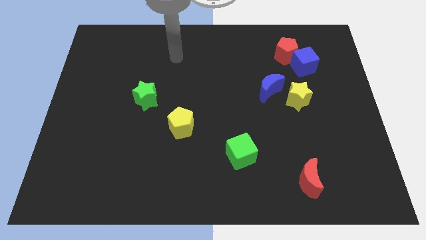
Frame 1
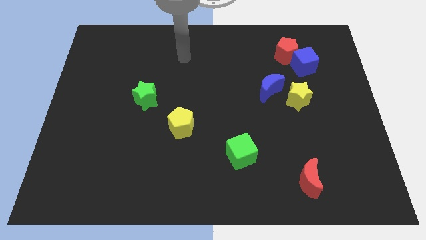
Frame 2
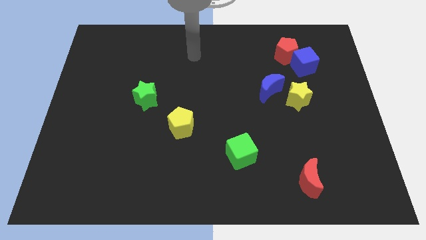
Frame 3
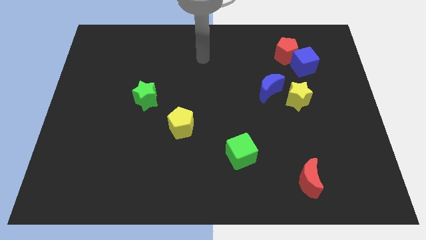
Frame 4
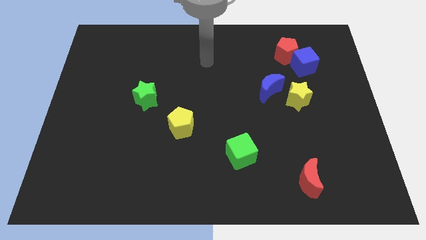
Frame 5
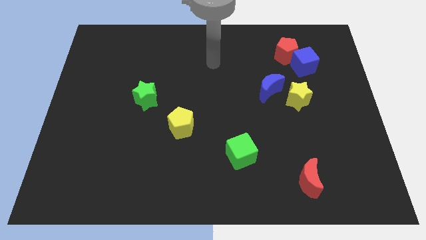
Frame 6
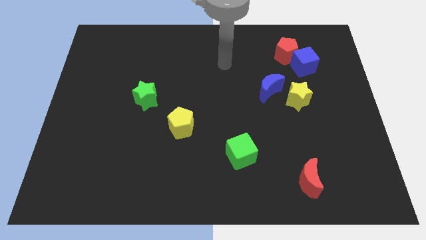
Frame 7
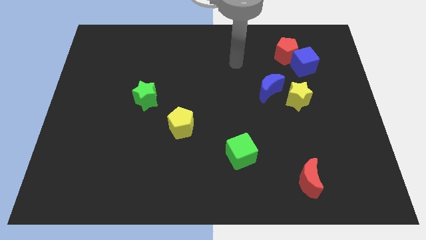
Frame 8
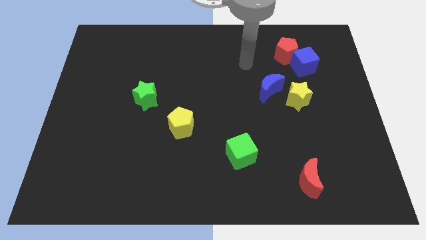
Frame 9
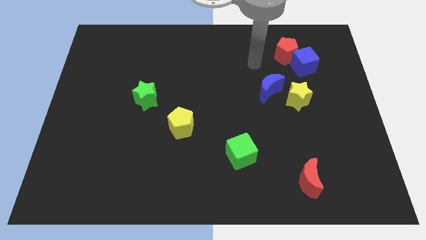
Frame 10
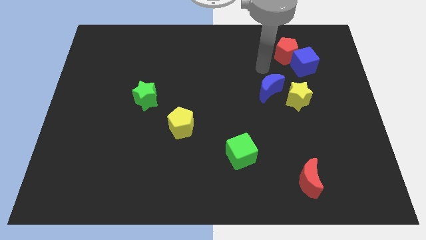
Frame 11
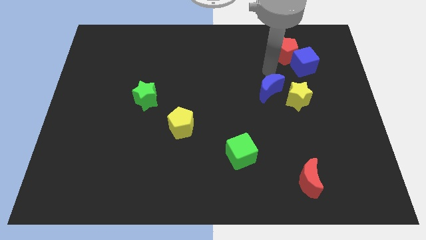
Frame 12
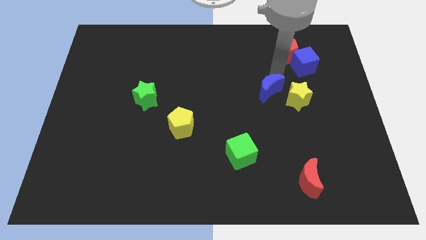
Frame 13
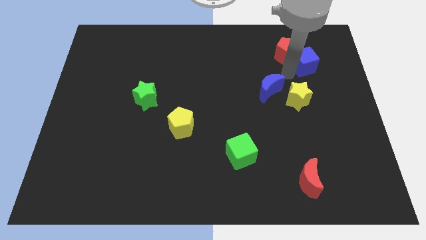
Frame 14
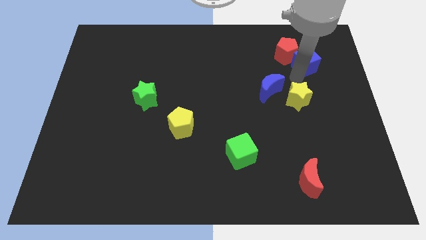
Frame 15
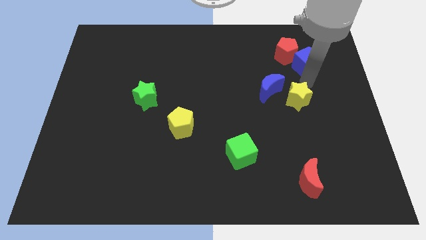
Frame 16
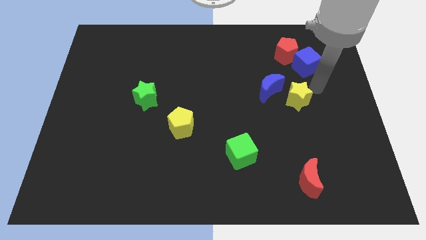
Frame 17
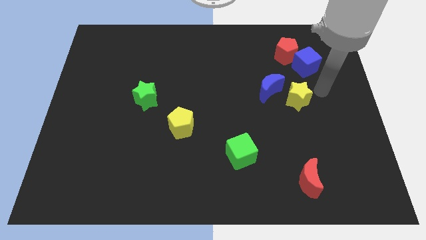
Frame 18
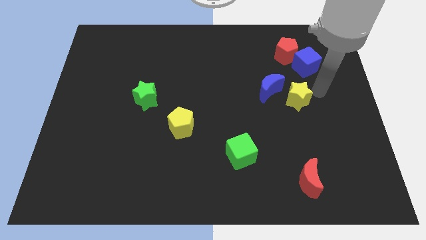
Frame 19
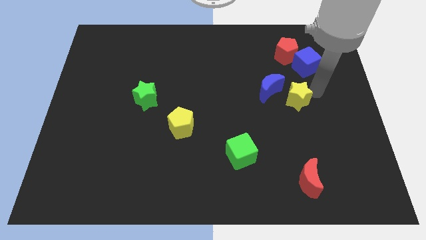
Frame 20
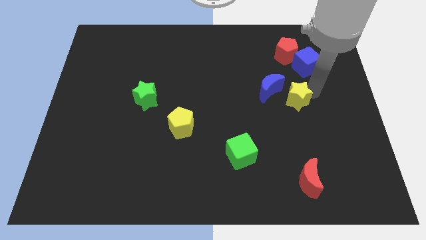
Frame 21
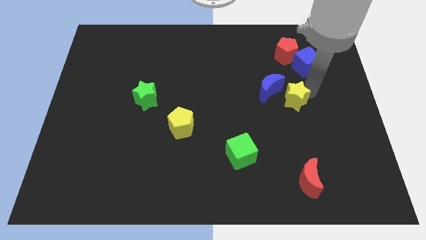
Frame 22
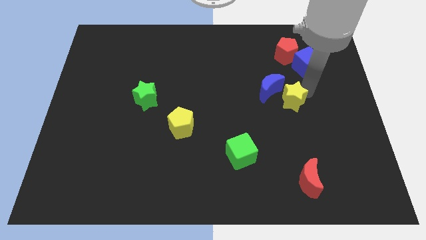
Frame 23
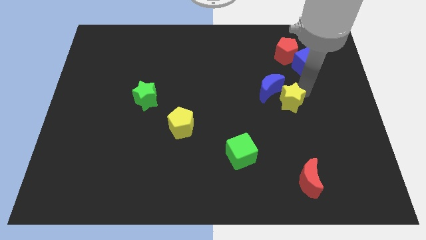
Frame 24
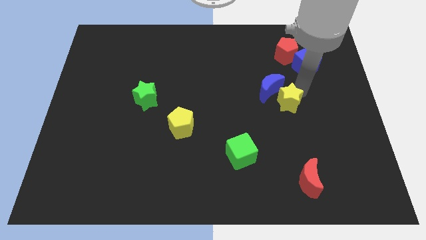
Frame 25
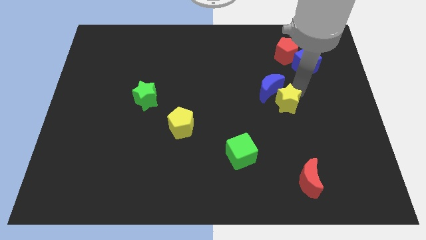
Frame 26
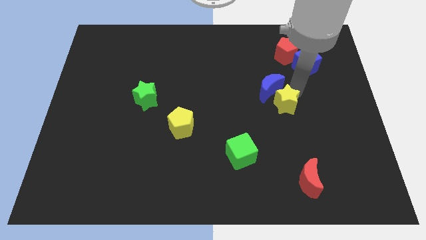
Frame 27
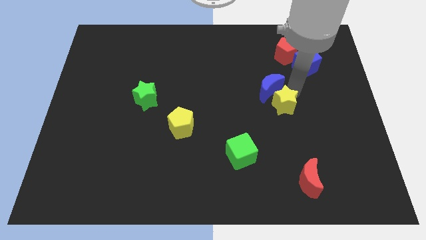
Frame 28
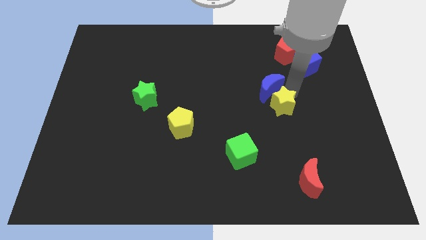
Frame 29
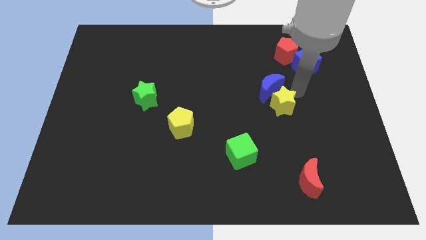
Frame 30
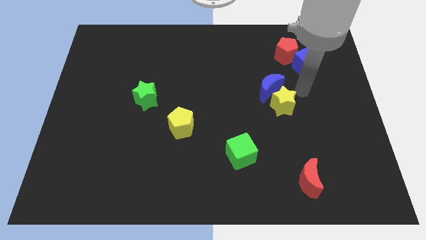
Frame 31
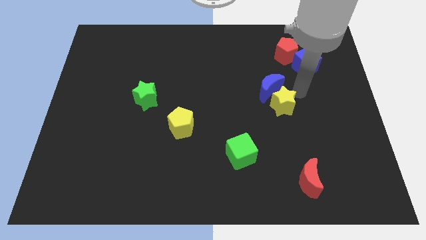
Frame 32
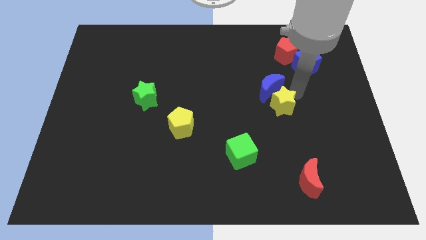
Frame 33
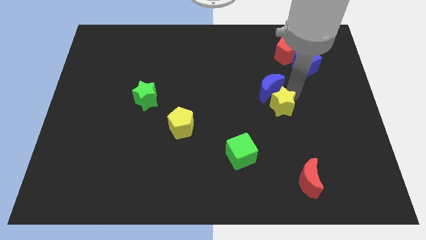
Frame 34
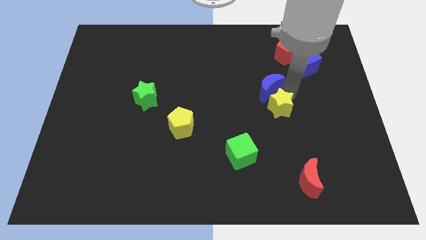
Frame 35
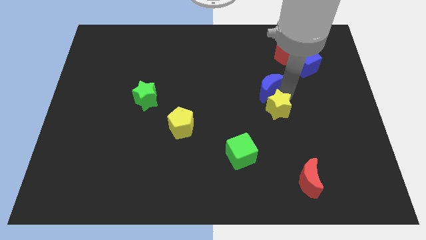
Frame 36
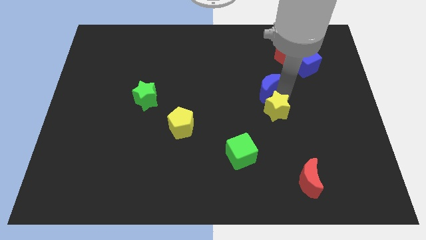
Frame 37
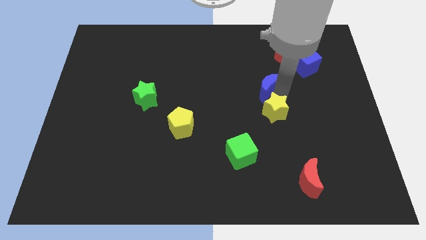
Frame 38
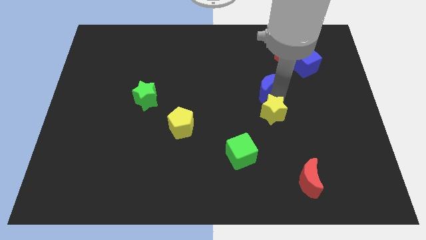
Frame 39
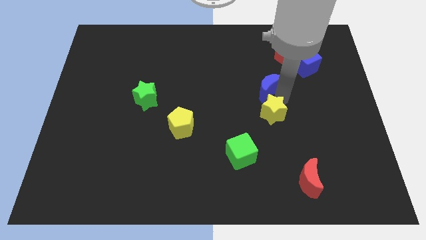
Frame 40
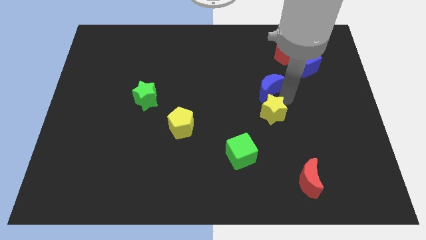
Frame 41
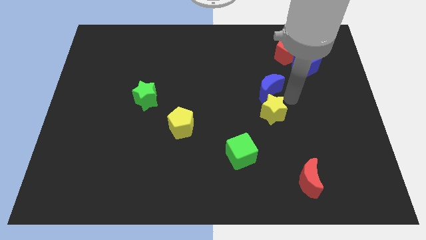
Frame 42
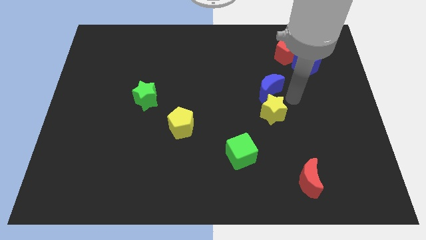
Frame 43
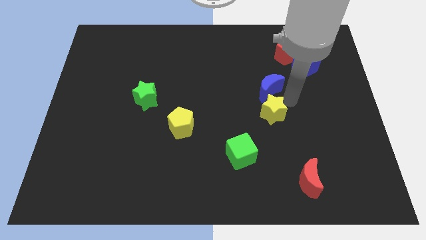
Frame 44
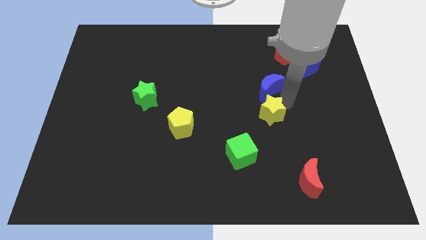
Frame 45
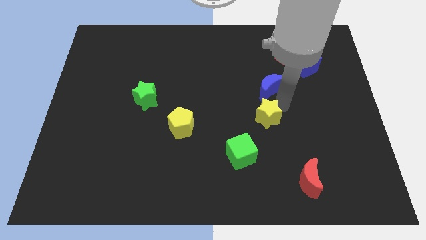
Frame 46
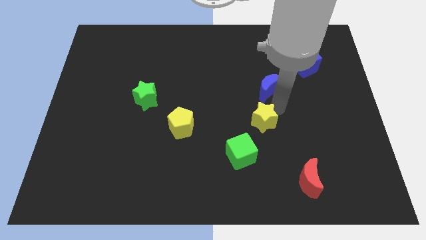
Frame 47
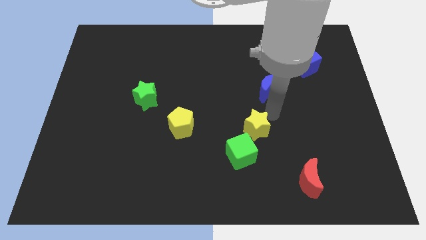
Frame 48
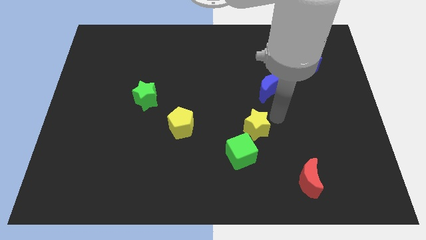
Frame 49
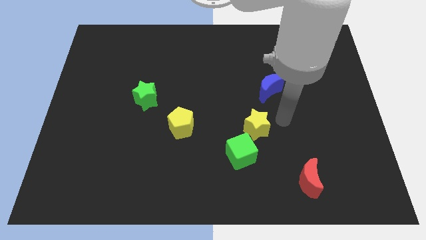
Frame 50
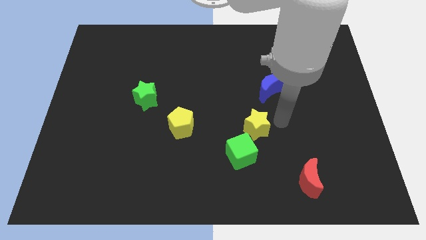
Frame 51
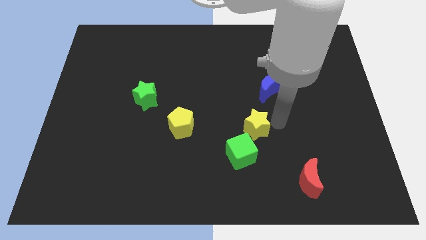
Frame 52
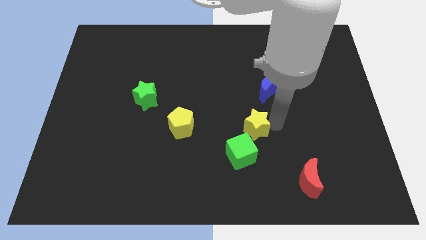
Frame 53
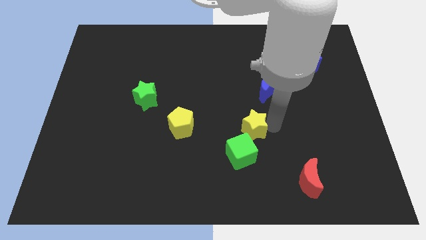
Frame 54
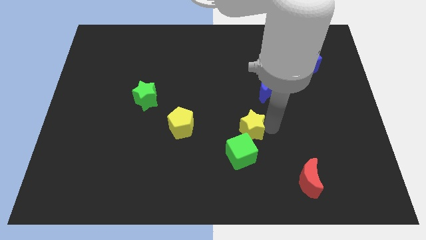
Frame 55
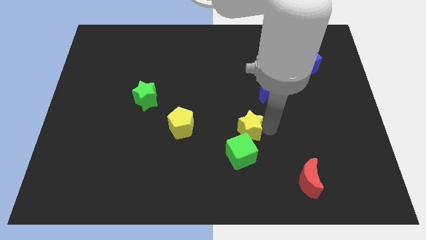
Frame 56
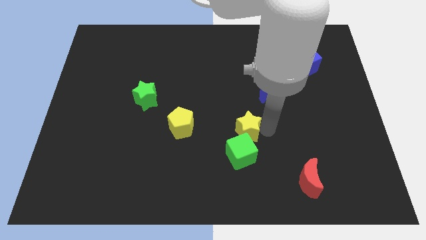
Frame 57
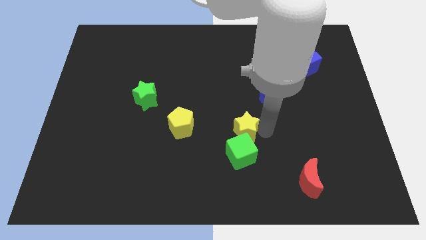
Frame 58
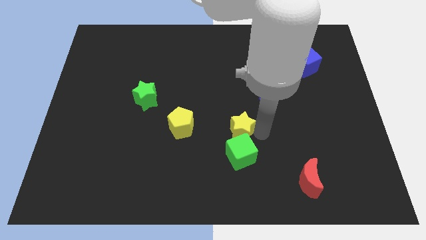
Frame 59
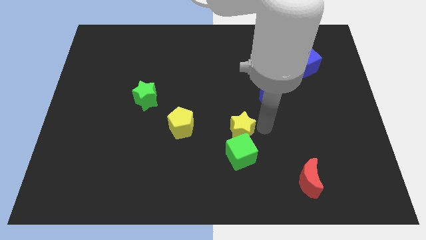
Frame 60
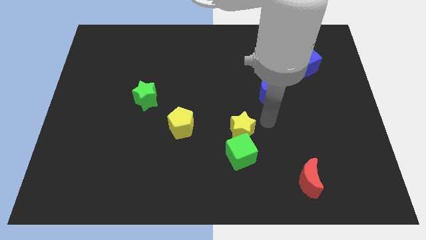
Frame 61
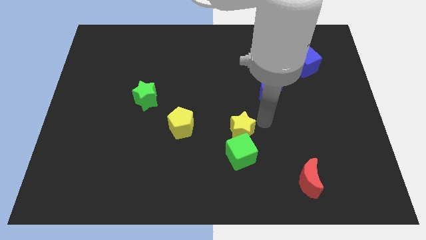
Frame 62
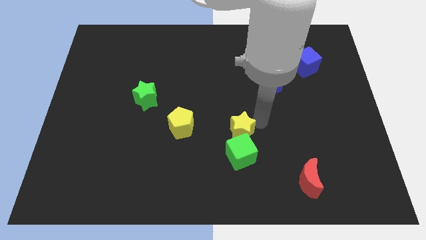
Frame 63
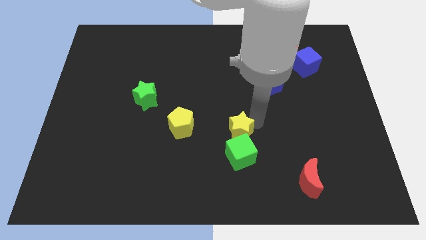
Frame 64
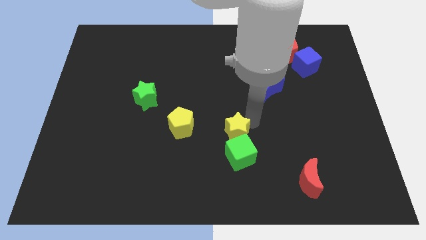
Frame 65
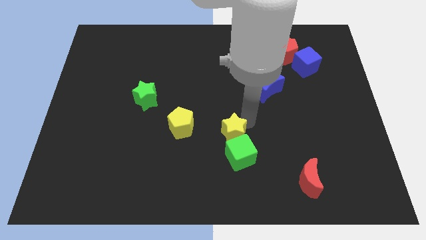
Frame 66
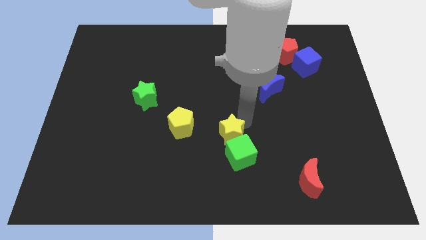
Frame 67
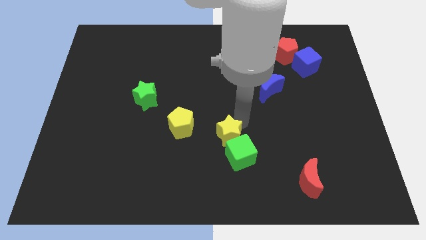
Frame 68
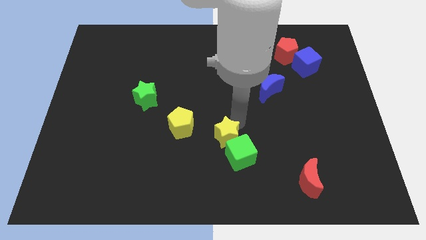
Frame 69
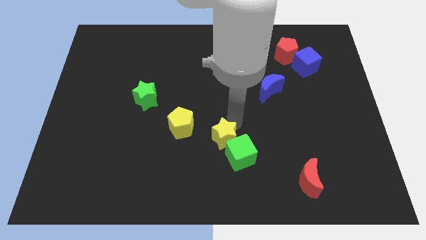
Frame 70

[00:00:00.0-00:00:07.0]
move the yellow star diagonally down and to the right of the yellow pentagon

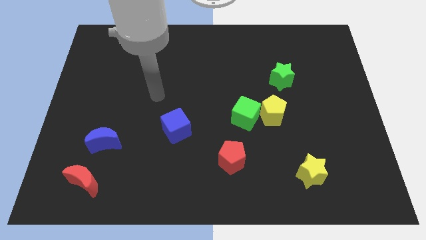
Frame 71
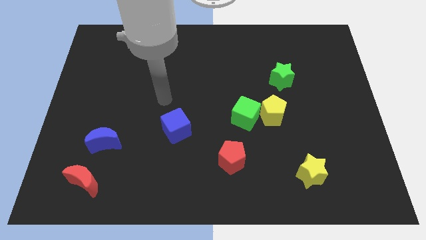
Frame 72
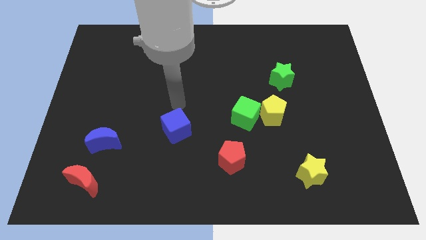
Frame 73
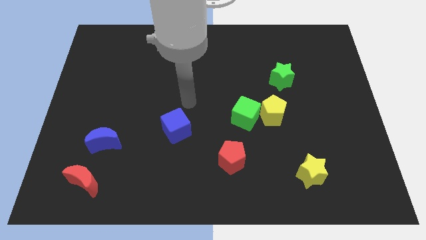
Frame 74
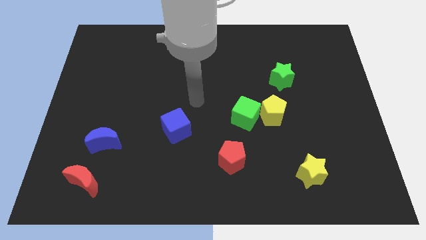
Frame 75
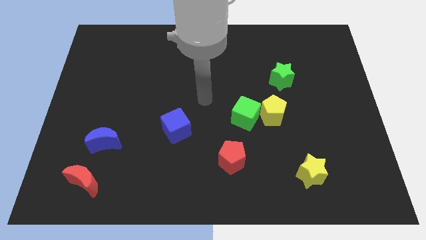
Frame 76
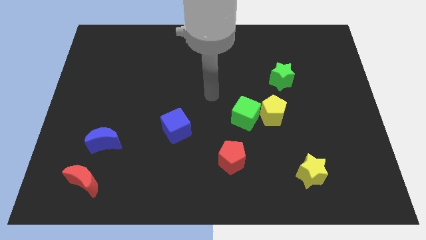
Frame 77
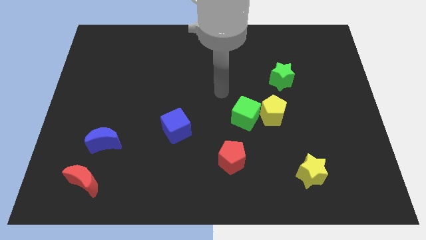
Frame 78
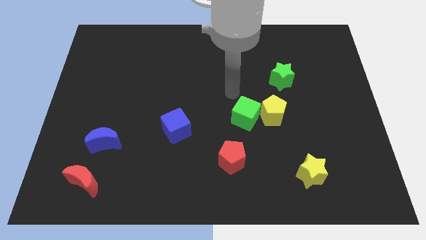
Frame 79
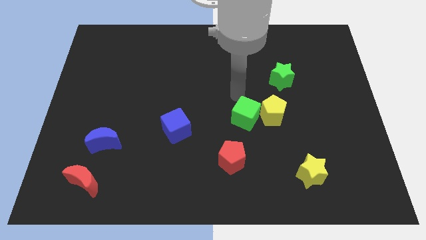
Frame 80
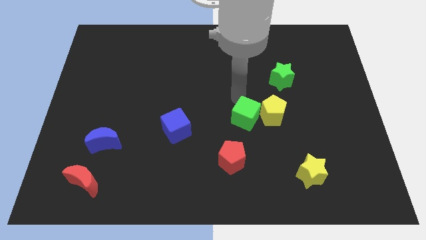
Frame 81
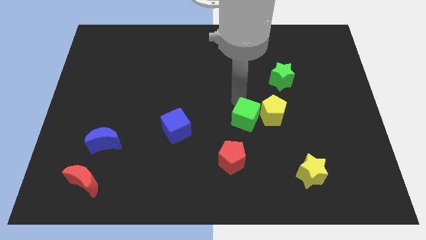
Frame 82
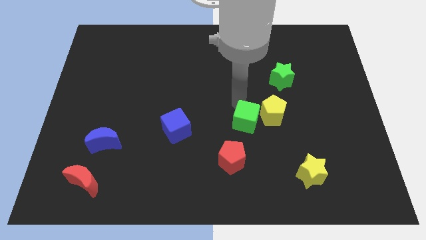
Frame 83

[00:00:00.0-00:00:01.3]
slide the green cube to the top right of the red pentagon
